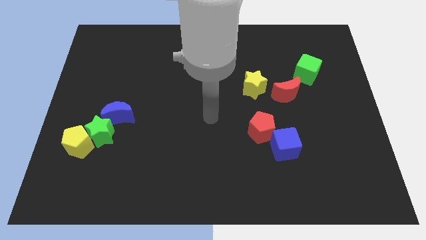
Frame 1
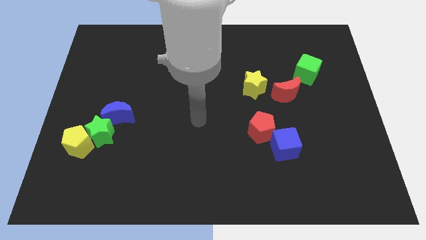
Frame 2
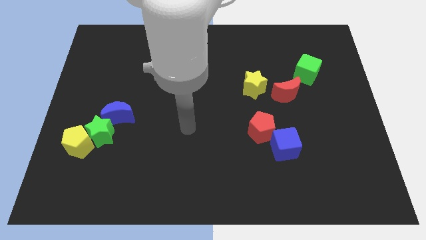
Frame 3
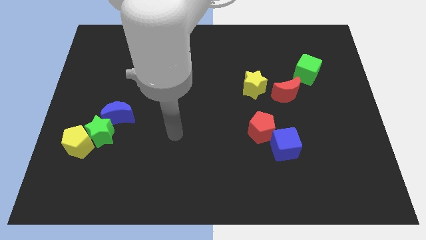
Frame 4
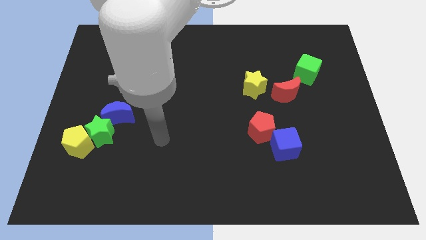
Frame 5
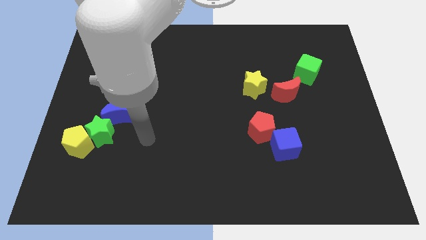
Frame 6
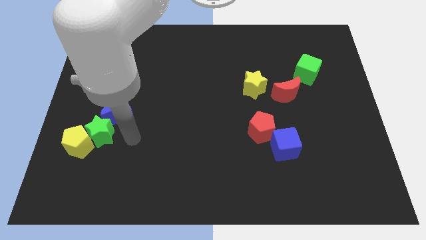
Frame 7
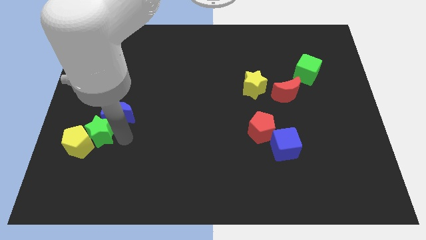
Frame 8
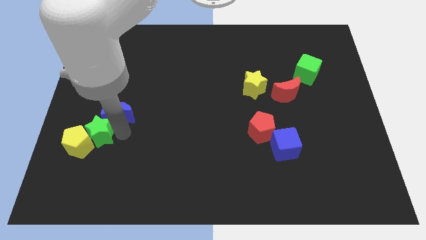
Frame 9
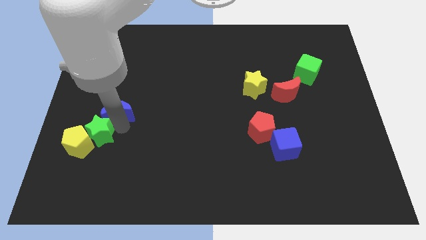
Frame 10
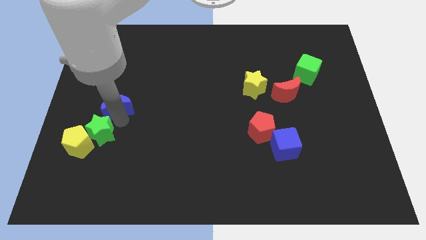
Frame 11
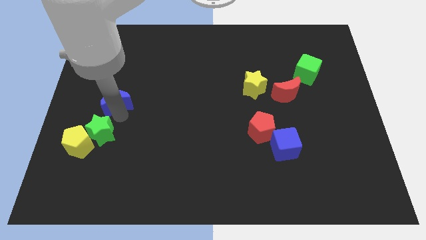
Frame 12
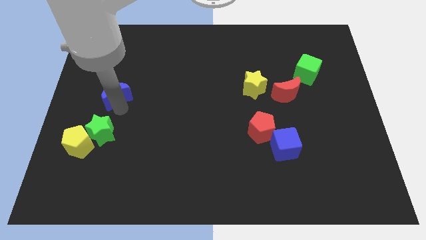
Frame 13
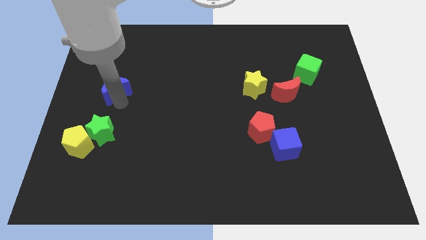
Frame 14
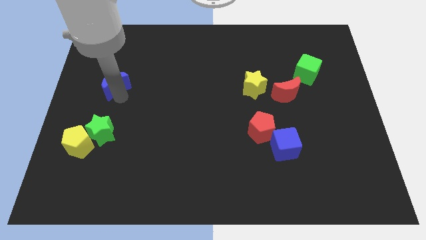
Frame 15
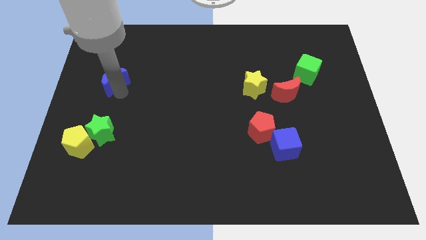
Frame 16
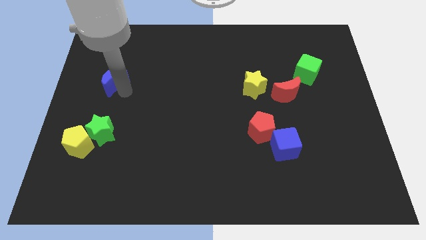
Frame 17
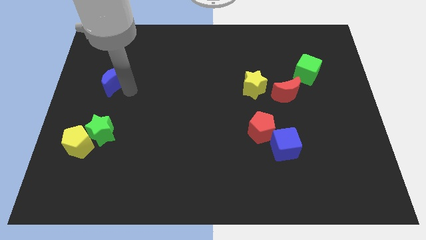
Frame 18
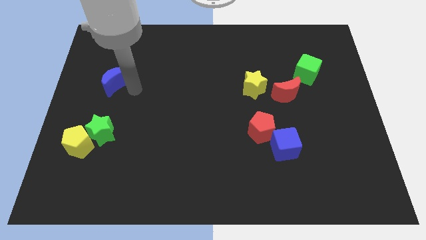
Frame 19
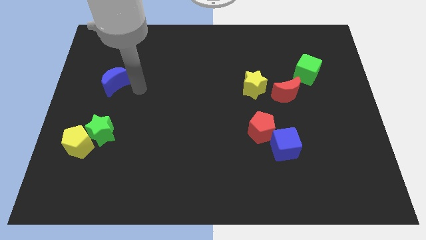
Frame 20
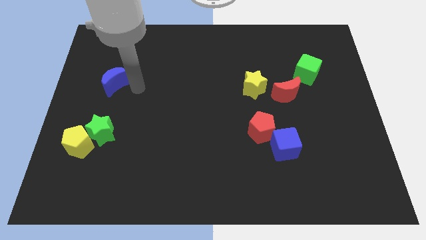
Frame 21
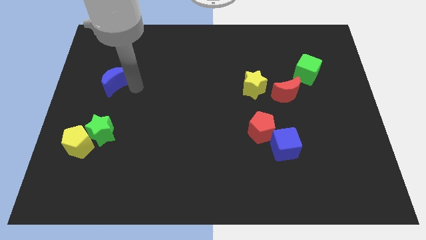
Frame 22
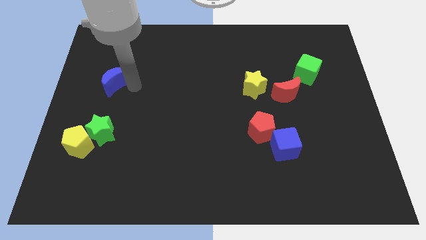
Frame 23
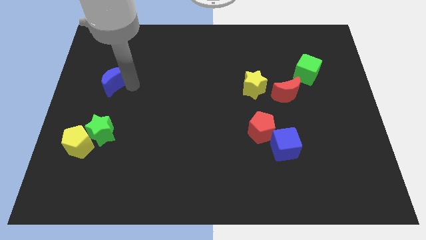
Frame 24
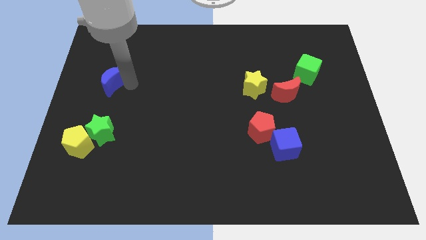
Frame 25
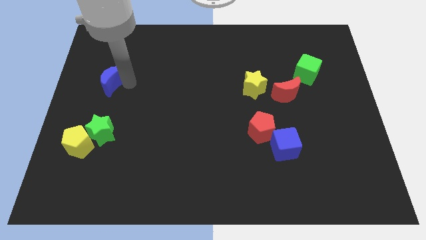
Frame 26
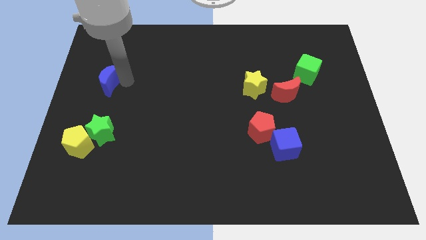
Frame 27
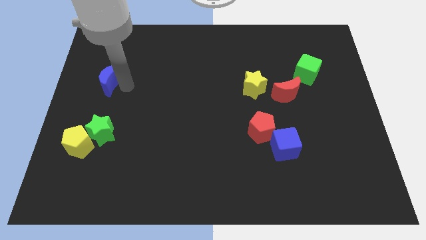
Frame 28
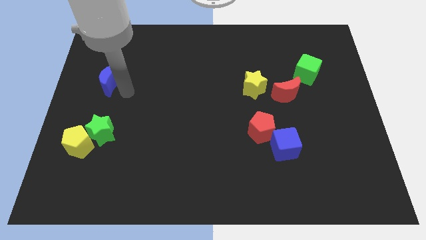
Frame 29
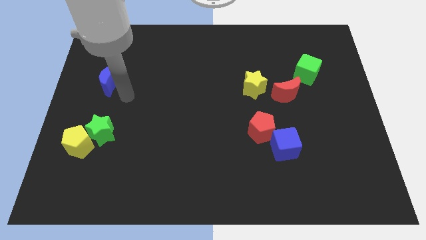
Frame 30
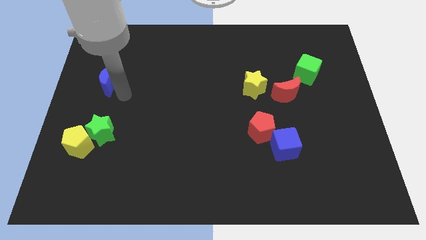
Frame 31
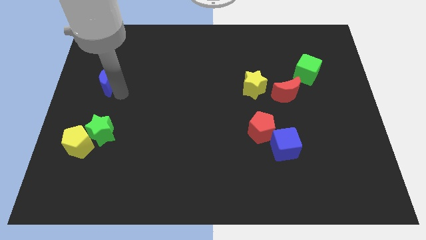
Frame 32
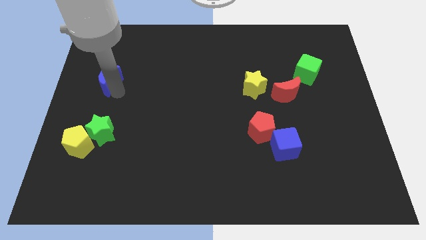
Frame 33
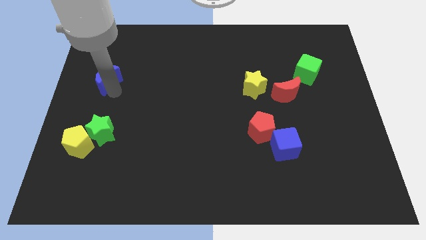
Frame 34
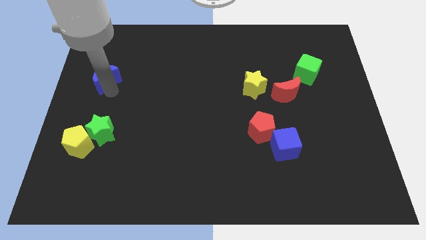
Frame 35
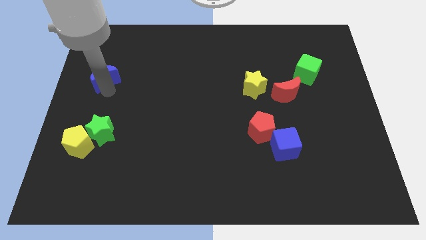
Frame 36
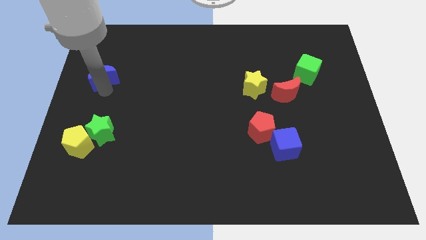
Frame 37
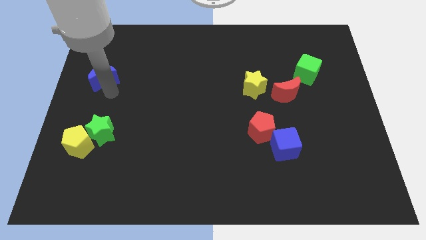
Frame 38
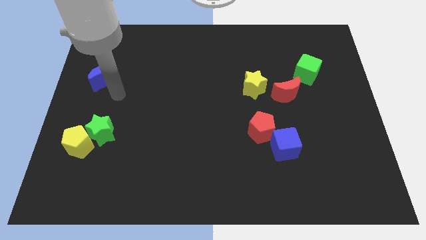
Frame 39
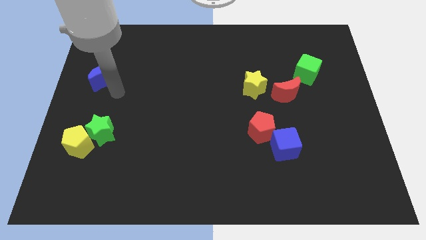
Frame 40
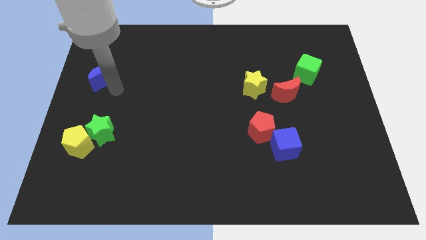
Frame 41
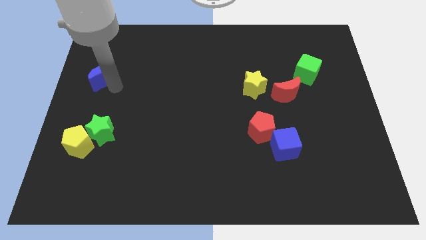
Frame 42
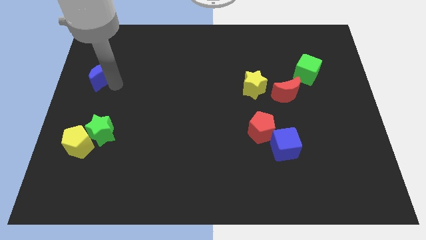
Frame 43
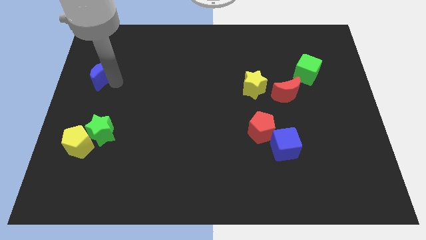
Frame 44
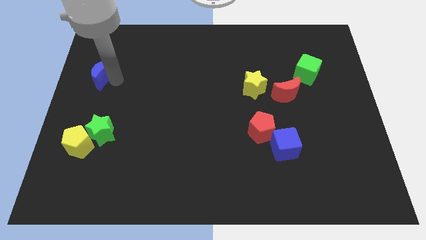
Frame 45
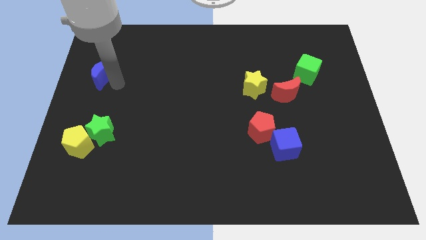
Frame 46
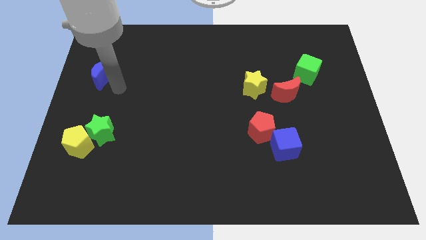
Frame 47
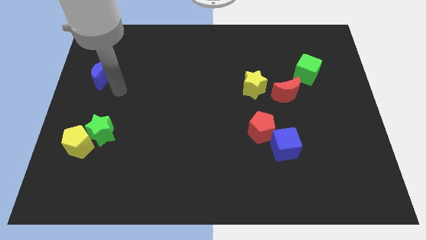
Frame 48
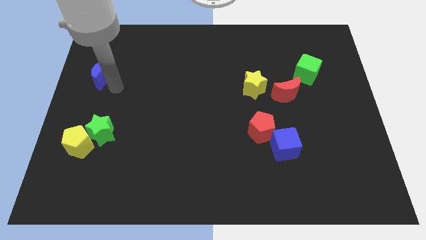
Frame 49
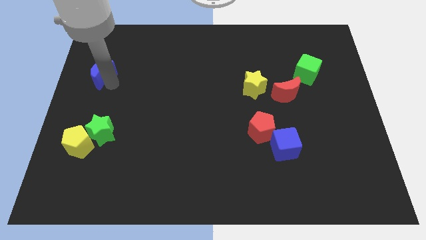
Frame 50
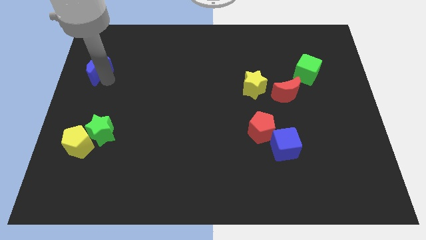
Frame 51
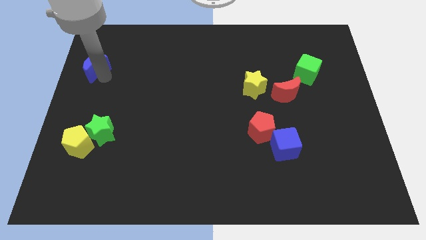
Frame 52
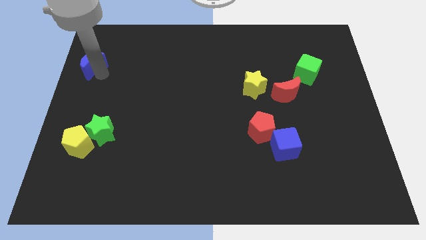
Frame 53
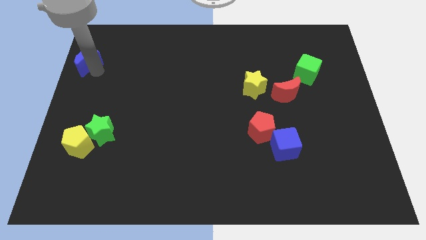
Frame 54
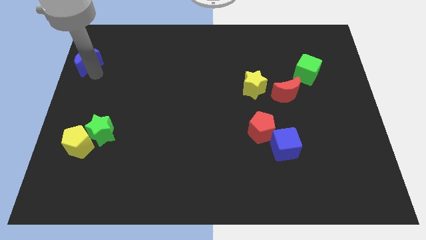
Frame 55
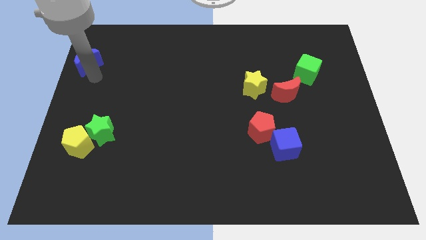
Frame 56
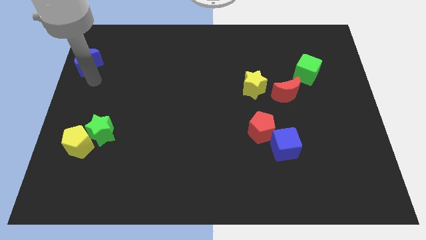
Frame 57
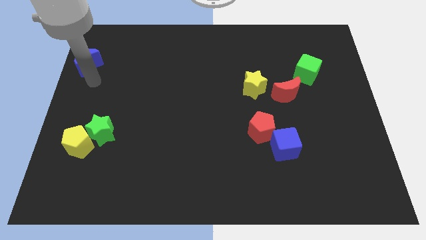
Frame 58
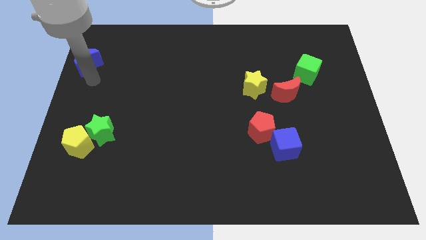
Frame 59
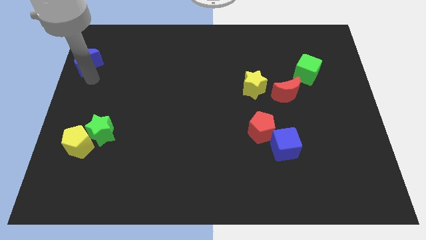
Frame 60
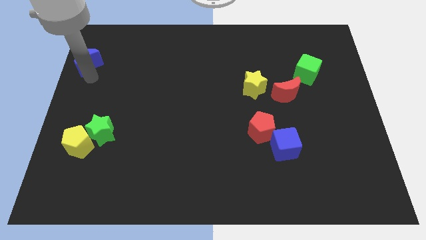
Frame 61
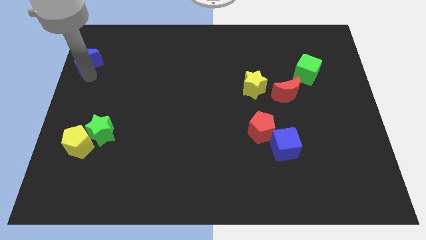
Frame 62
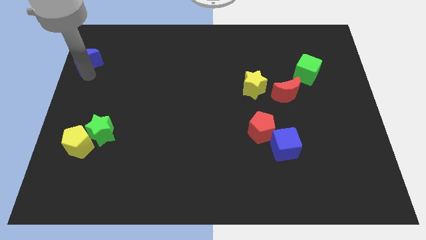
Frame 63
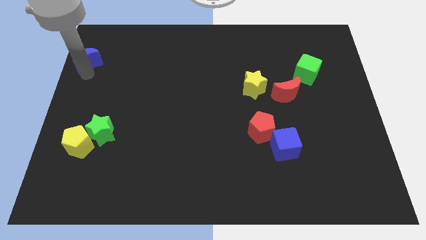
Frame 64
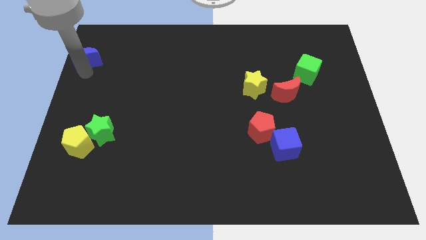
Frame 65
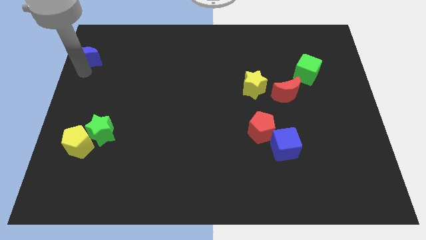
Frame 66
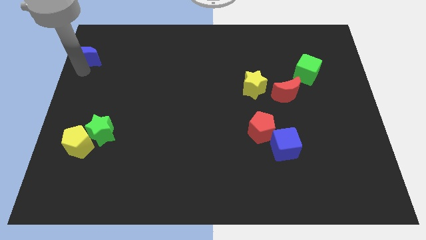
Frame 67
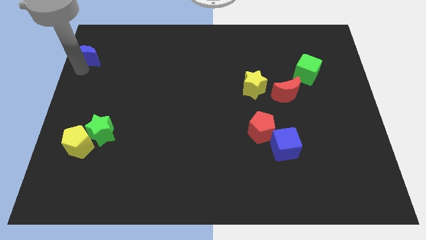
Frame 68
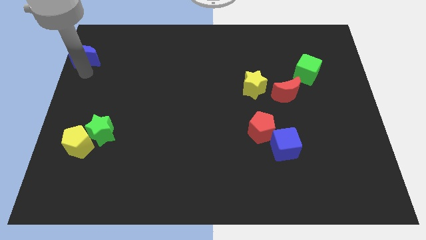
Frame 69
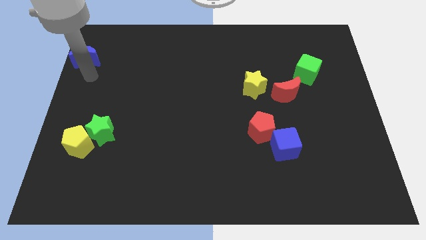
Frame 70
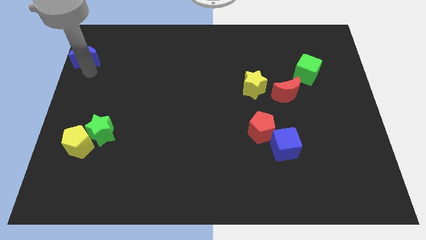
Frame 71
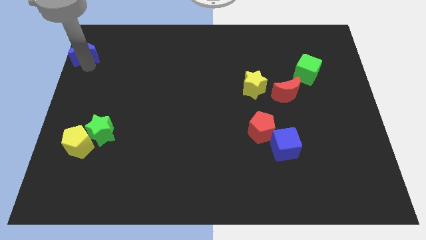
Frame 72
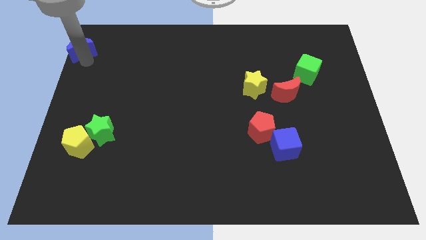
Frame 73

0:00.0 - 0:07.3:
push the blue moon to the top left
